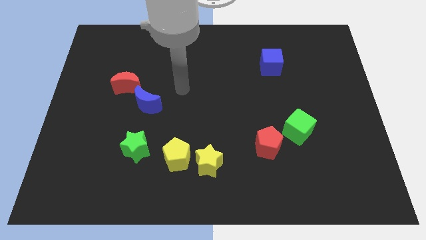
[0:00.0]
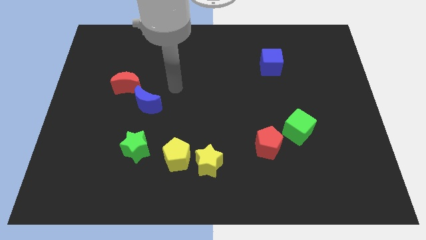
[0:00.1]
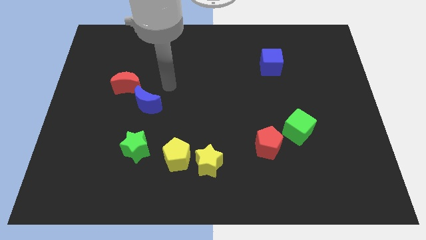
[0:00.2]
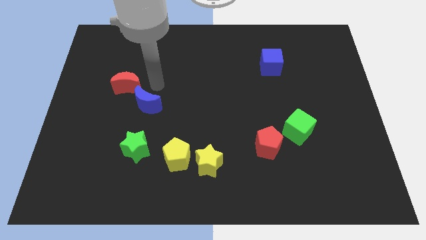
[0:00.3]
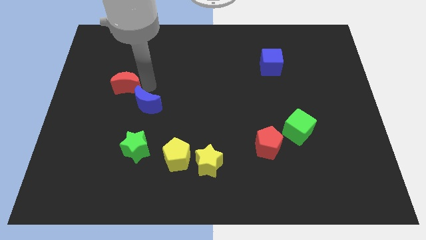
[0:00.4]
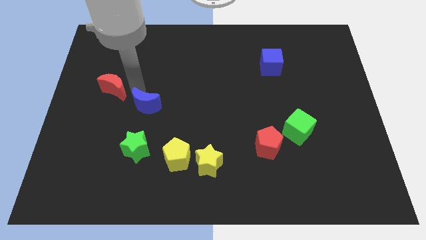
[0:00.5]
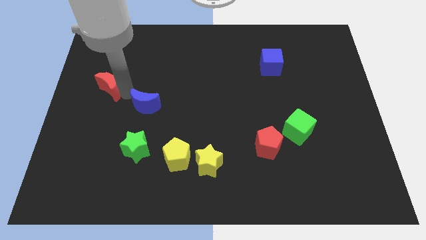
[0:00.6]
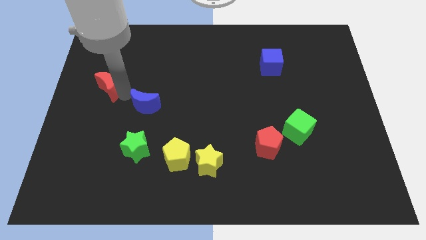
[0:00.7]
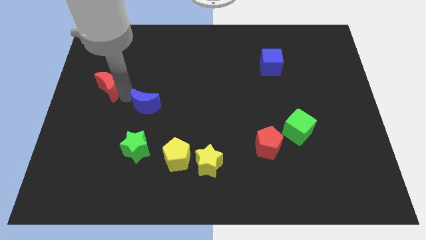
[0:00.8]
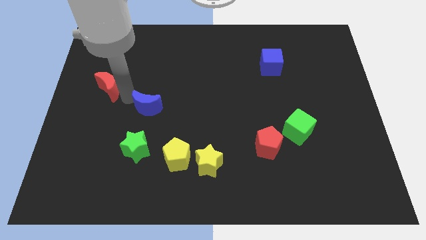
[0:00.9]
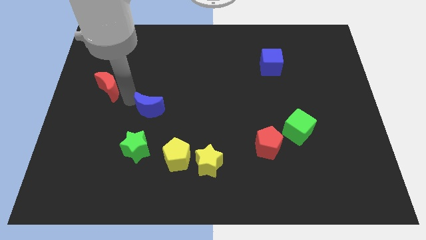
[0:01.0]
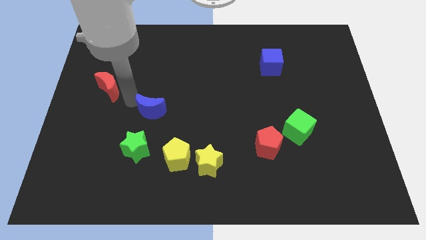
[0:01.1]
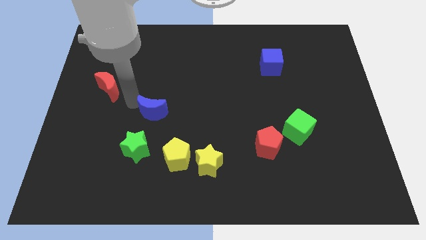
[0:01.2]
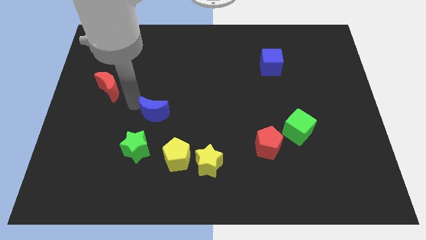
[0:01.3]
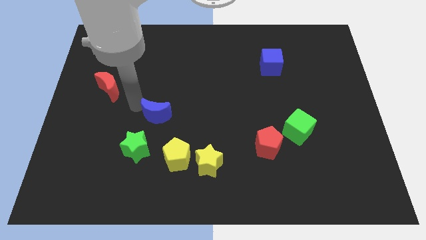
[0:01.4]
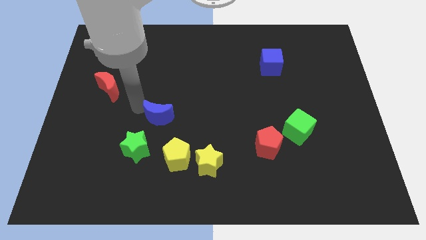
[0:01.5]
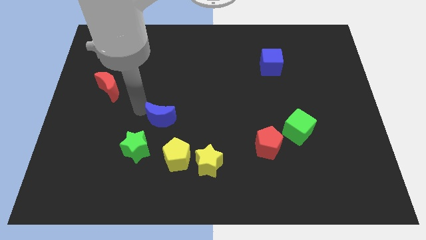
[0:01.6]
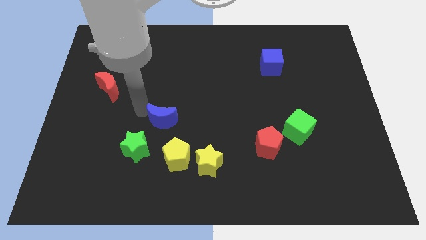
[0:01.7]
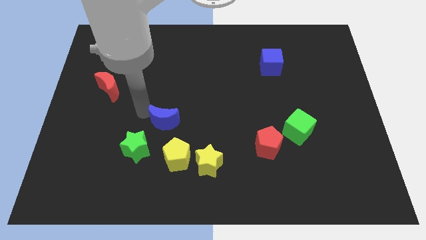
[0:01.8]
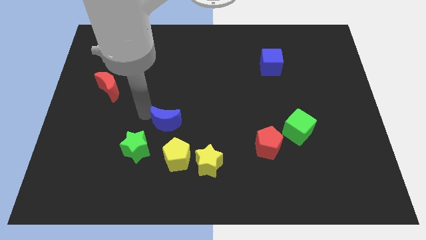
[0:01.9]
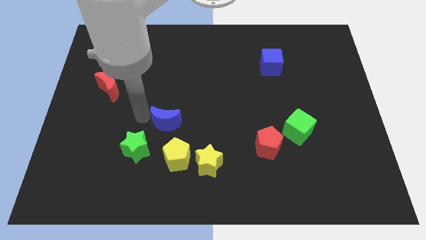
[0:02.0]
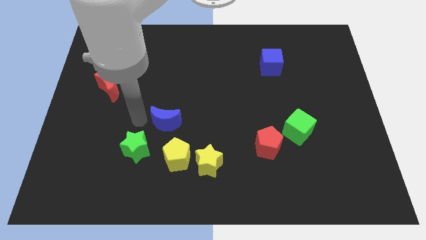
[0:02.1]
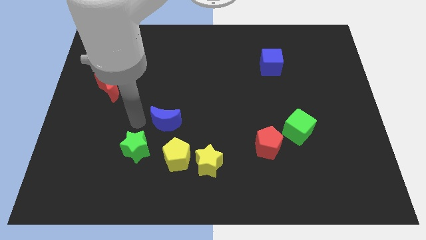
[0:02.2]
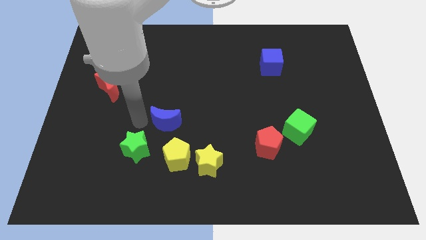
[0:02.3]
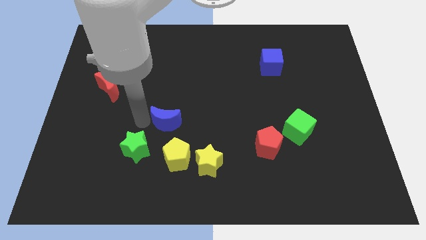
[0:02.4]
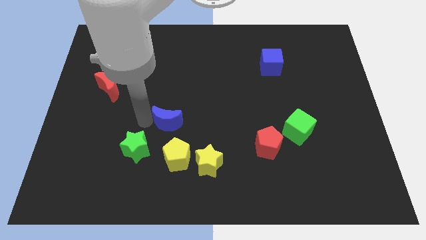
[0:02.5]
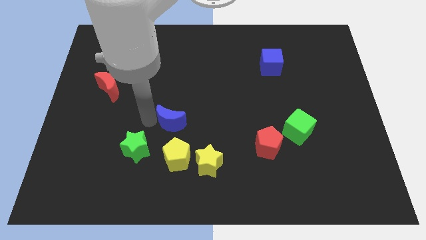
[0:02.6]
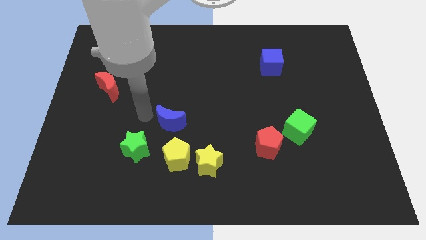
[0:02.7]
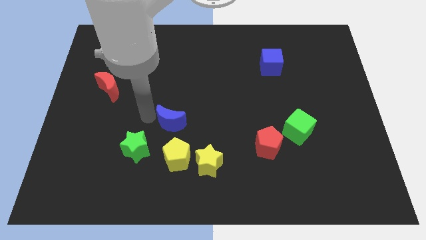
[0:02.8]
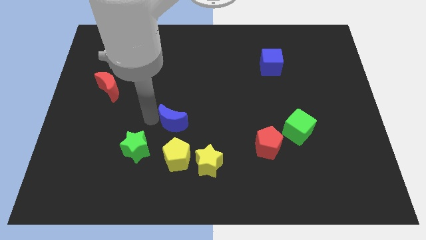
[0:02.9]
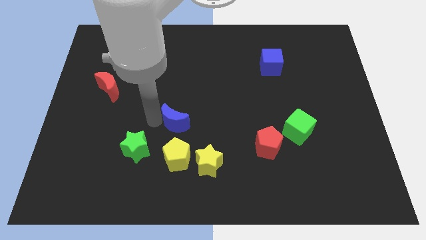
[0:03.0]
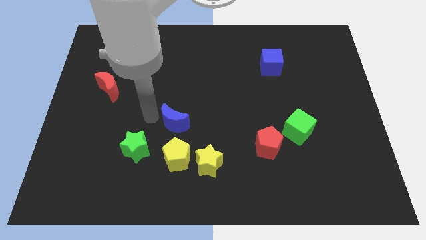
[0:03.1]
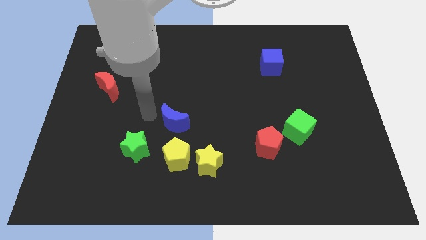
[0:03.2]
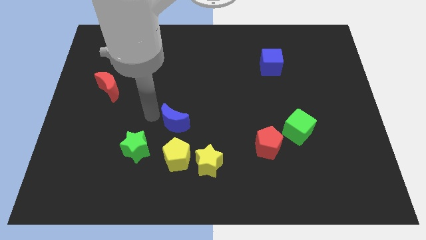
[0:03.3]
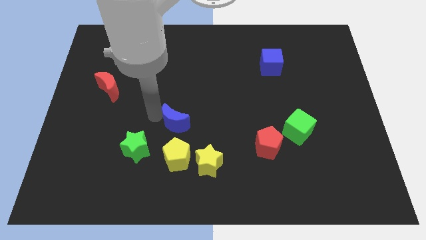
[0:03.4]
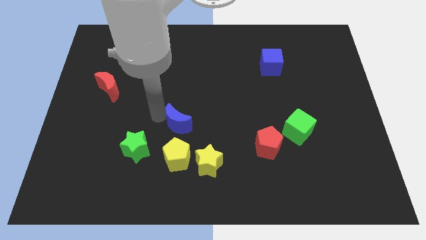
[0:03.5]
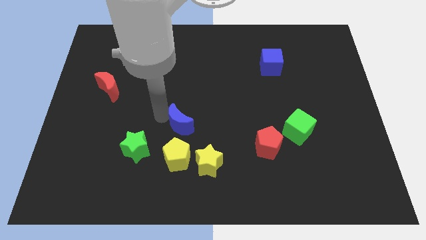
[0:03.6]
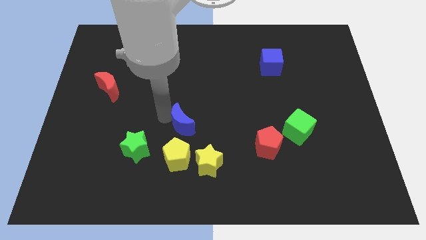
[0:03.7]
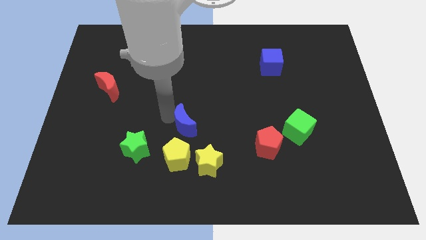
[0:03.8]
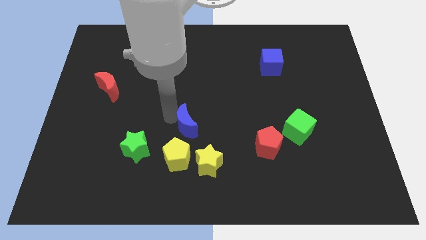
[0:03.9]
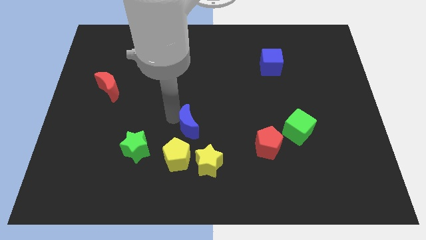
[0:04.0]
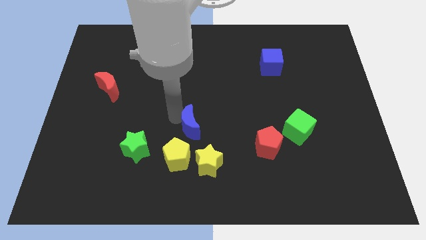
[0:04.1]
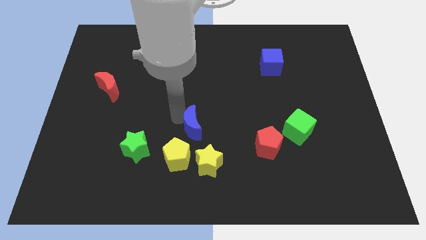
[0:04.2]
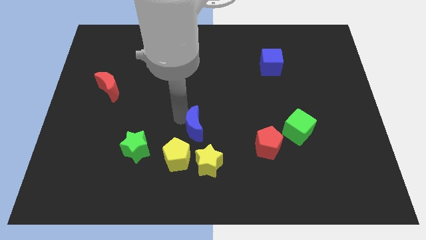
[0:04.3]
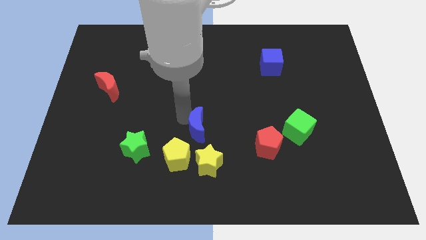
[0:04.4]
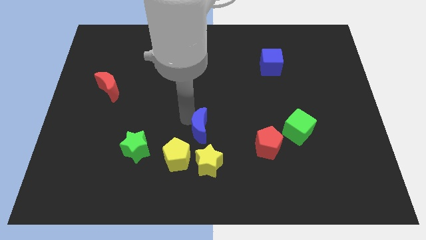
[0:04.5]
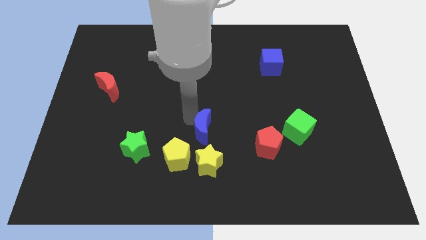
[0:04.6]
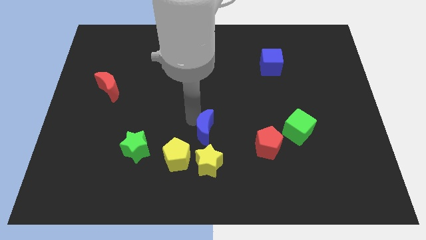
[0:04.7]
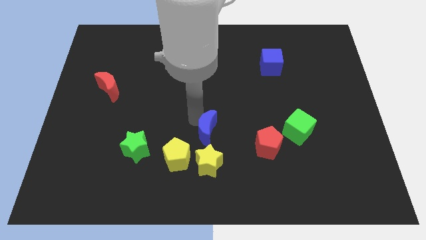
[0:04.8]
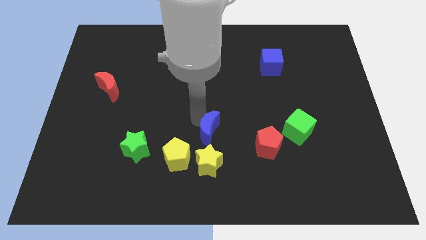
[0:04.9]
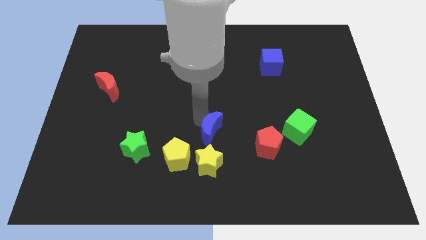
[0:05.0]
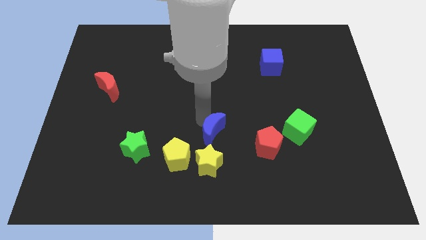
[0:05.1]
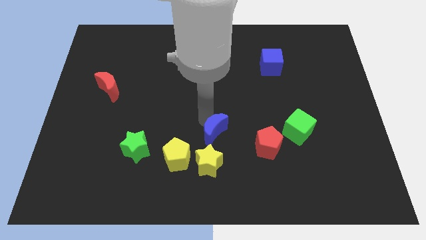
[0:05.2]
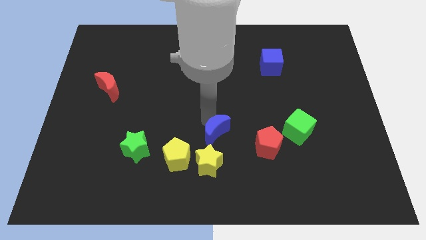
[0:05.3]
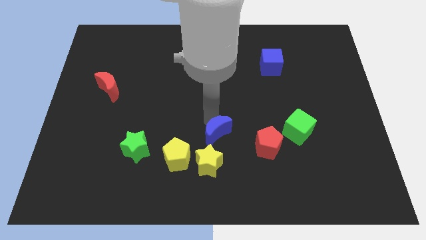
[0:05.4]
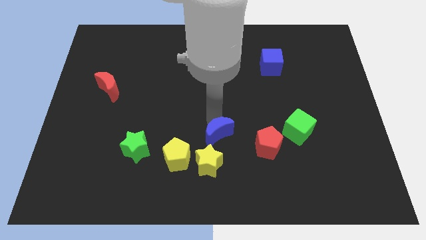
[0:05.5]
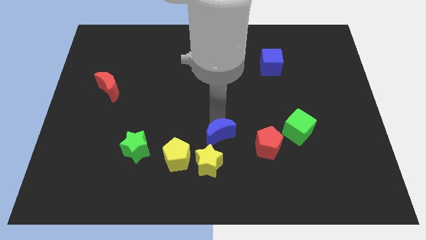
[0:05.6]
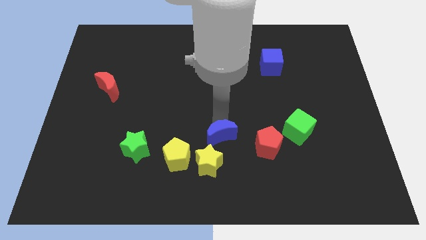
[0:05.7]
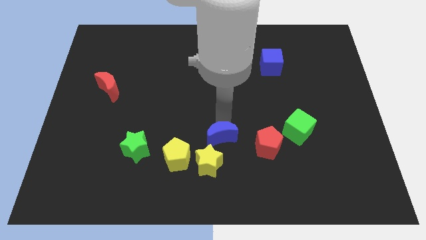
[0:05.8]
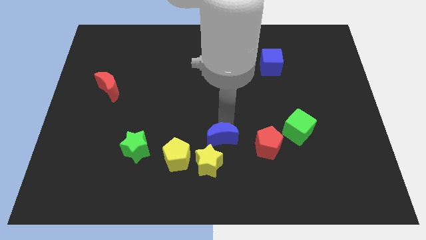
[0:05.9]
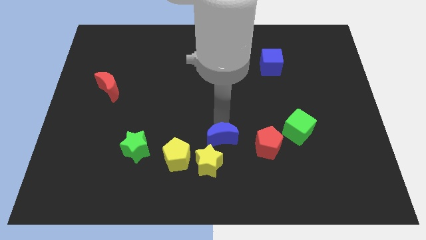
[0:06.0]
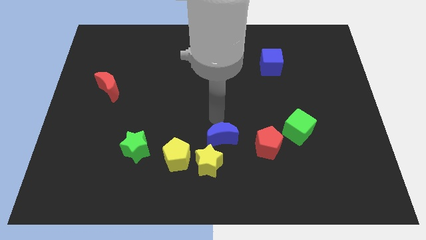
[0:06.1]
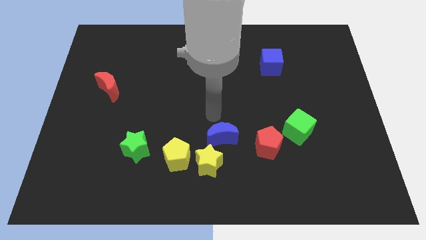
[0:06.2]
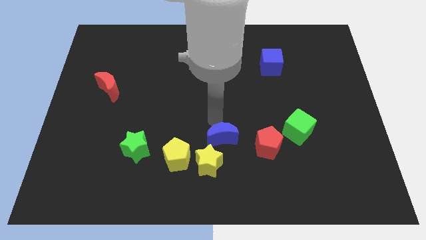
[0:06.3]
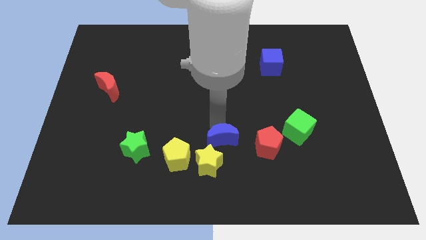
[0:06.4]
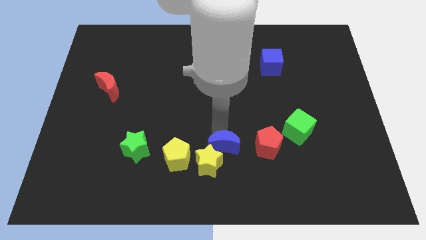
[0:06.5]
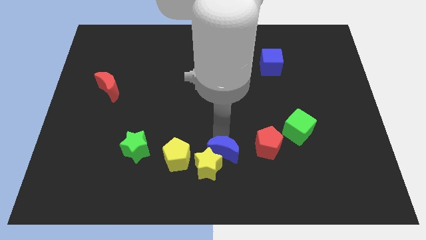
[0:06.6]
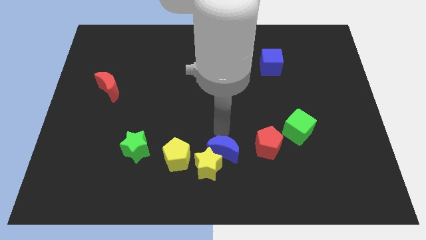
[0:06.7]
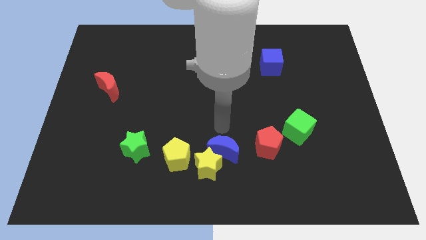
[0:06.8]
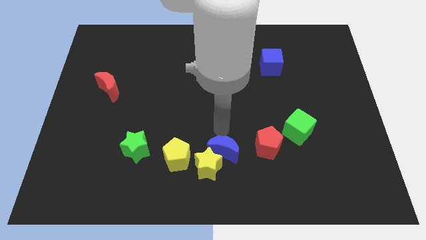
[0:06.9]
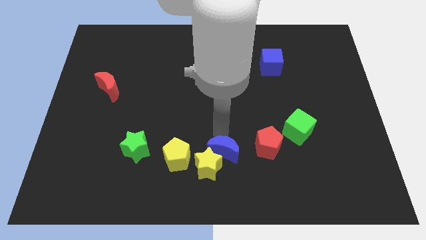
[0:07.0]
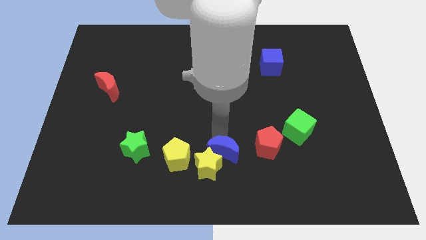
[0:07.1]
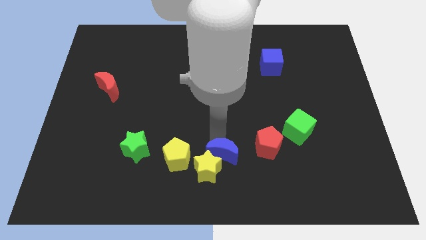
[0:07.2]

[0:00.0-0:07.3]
push the blue moon to the bottom
